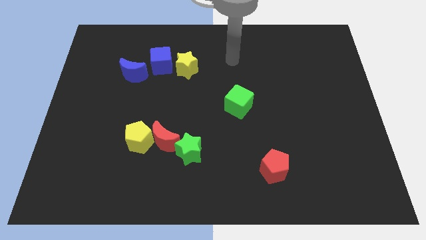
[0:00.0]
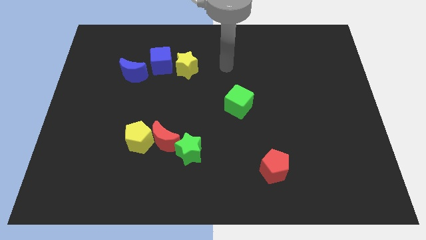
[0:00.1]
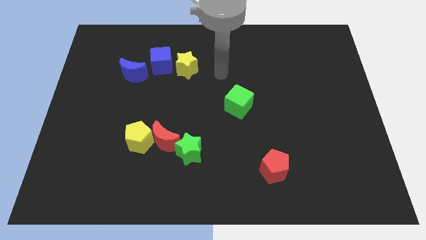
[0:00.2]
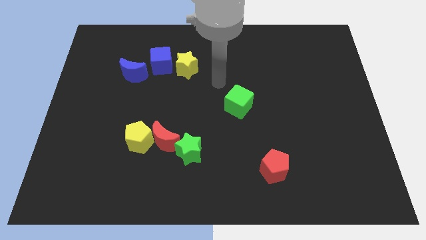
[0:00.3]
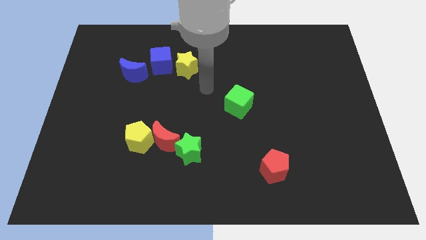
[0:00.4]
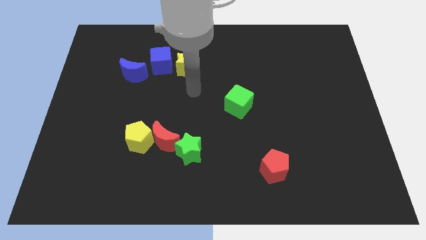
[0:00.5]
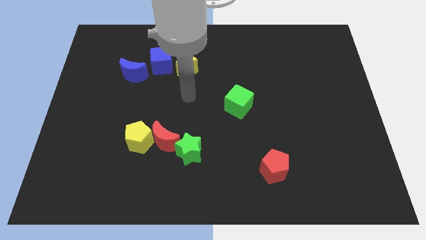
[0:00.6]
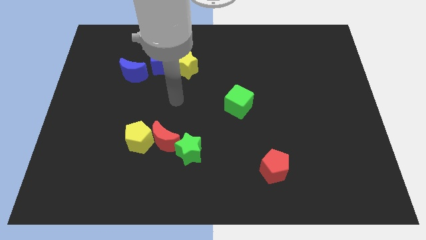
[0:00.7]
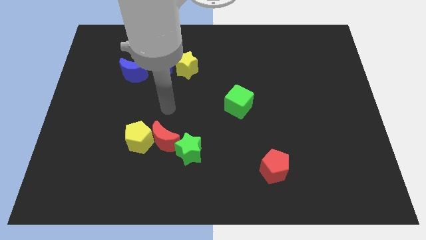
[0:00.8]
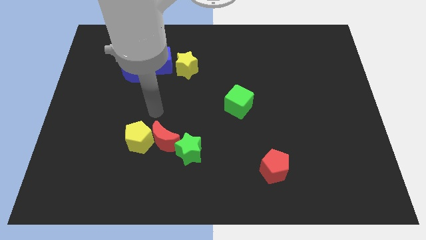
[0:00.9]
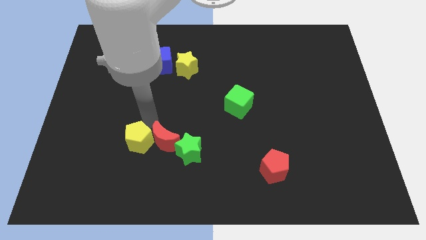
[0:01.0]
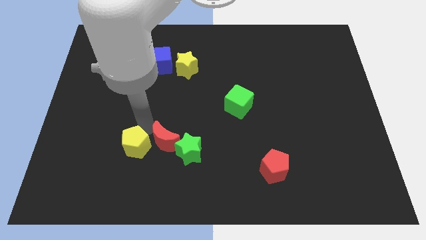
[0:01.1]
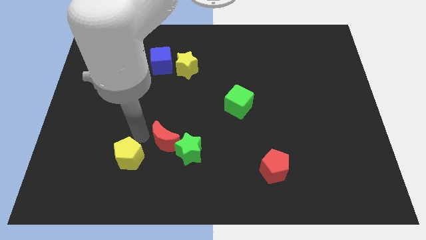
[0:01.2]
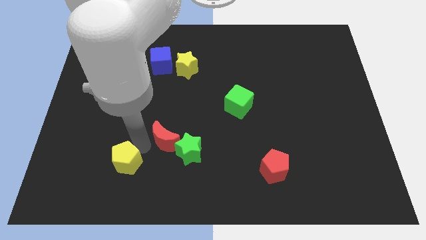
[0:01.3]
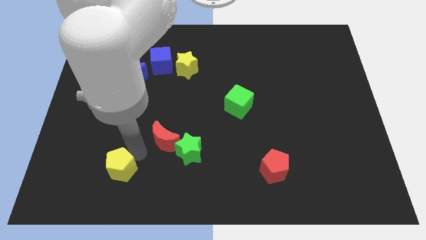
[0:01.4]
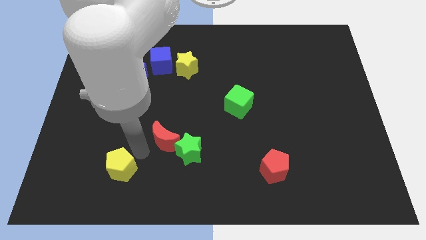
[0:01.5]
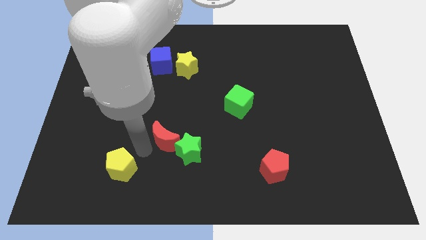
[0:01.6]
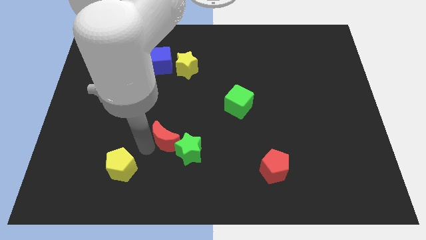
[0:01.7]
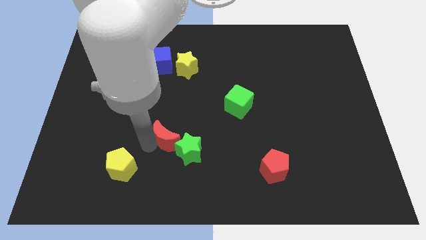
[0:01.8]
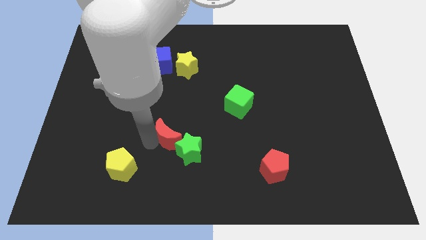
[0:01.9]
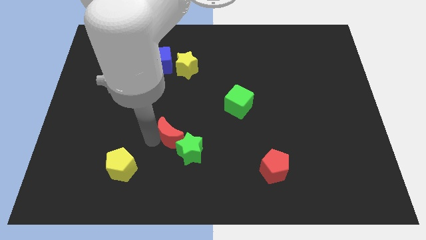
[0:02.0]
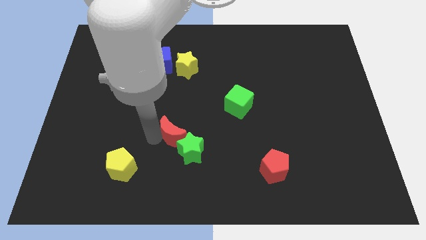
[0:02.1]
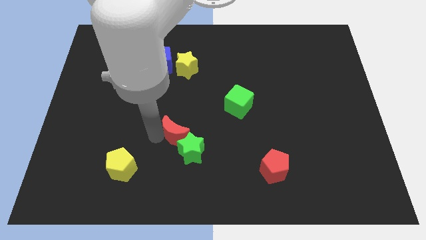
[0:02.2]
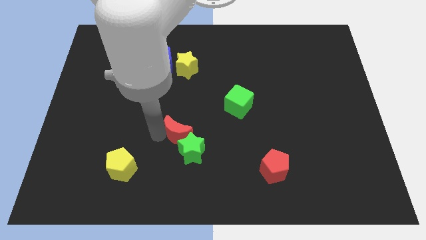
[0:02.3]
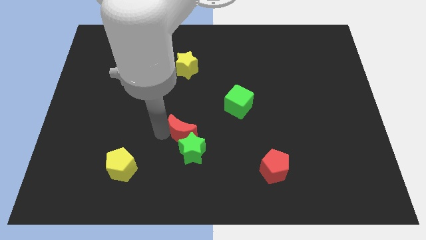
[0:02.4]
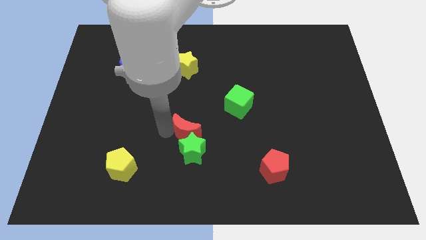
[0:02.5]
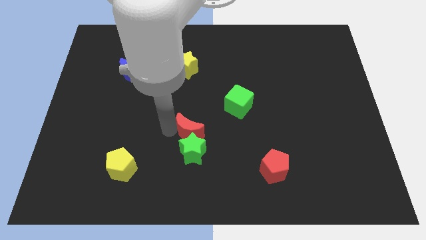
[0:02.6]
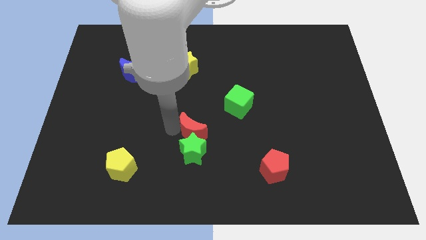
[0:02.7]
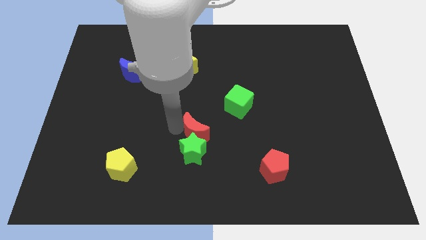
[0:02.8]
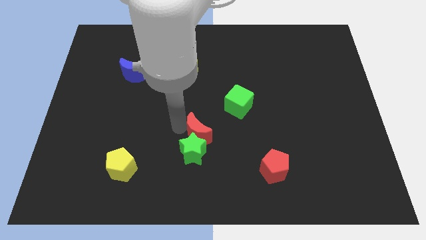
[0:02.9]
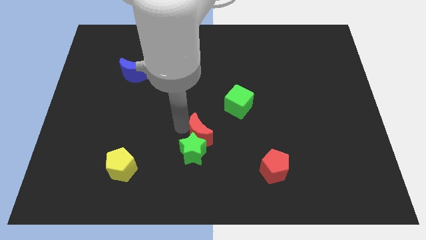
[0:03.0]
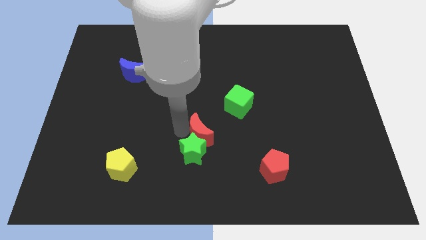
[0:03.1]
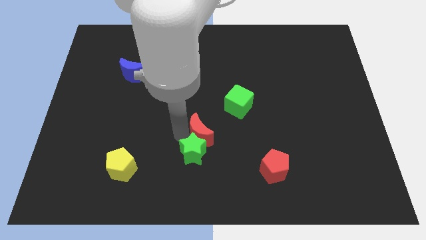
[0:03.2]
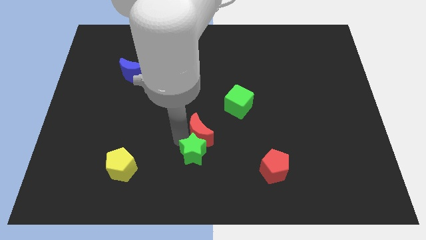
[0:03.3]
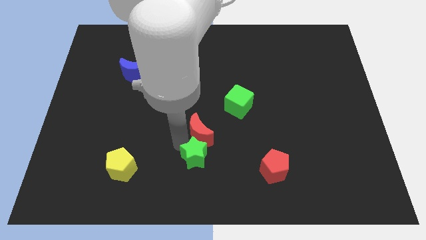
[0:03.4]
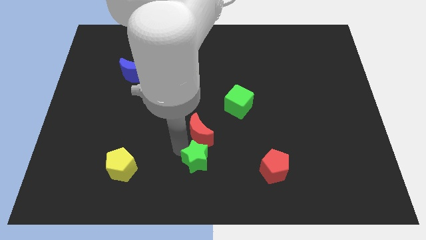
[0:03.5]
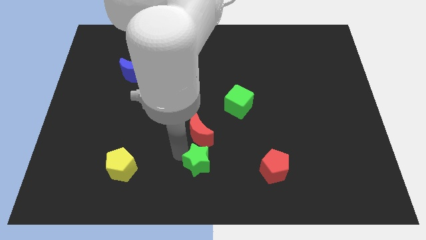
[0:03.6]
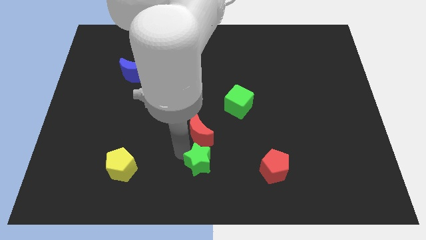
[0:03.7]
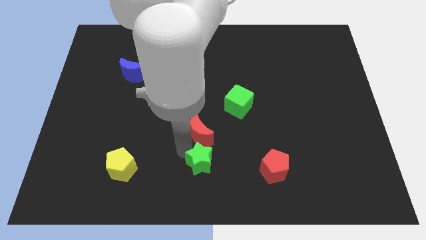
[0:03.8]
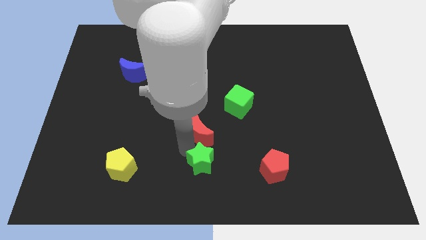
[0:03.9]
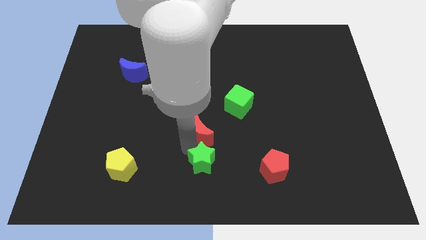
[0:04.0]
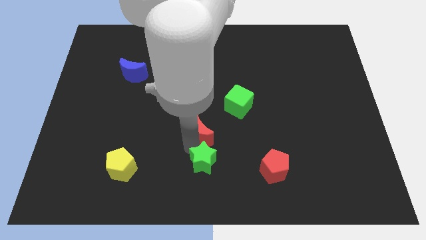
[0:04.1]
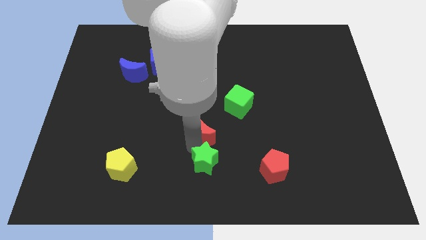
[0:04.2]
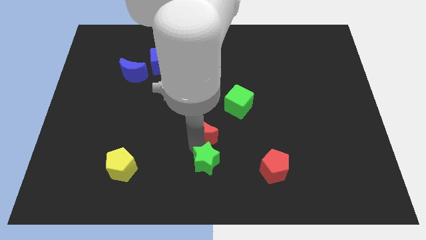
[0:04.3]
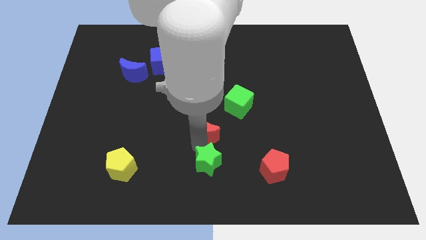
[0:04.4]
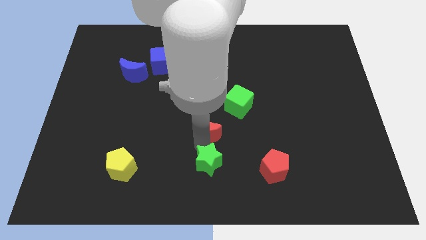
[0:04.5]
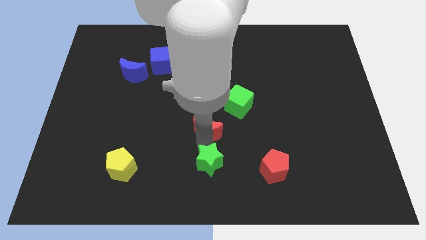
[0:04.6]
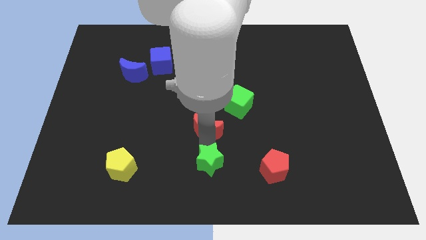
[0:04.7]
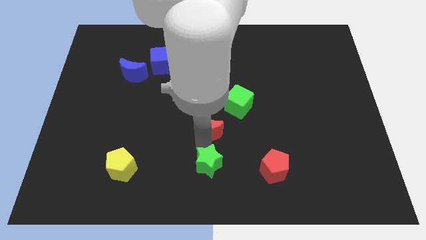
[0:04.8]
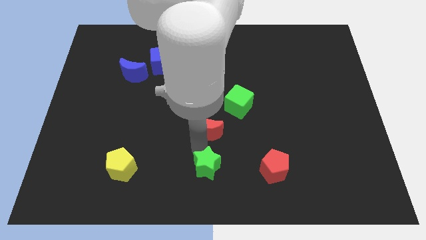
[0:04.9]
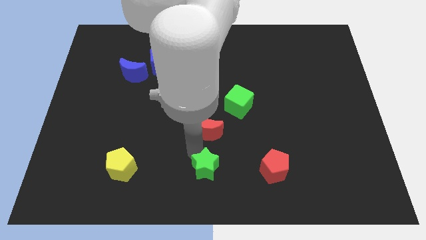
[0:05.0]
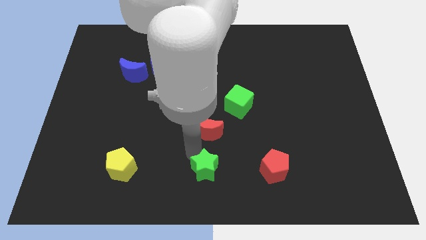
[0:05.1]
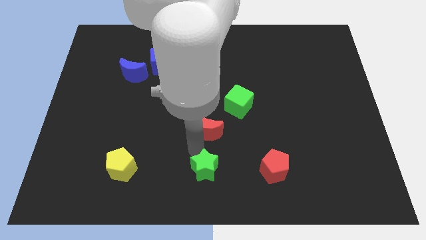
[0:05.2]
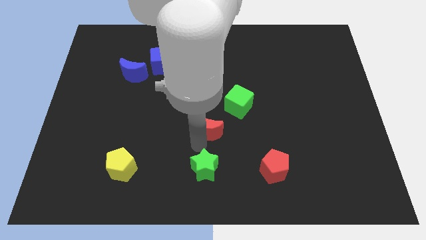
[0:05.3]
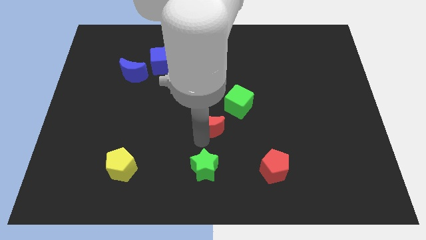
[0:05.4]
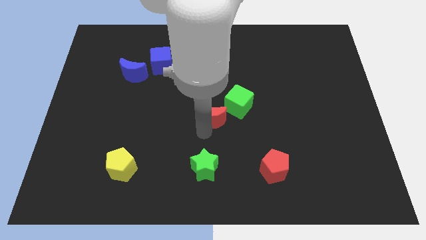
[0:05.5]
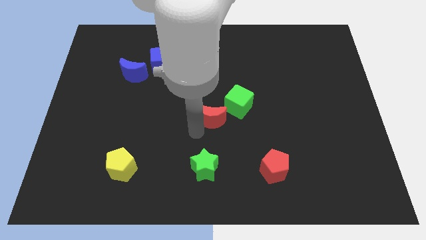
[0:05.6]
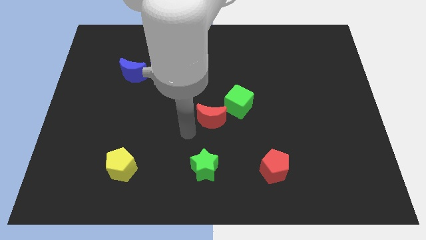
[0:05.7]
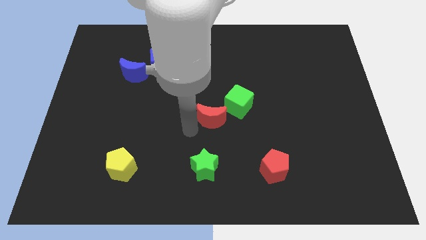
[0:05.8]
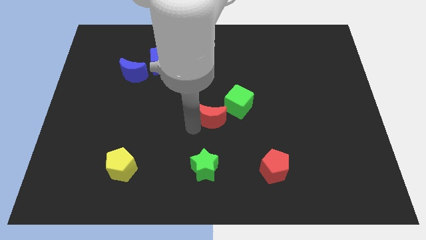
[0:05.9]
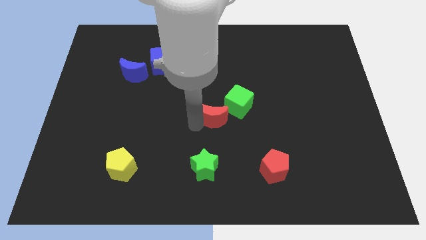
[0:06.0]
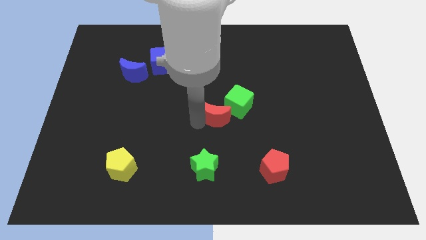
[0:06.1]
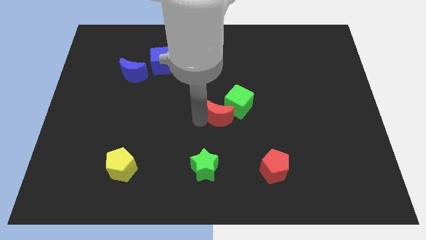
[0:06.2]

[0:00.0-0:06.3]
push the red moon towards the green cube

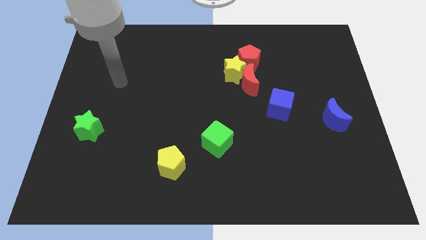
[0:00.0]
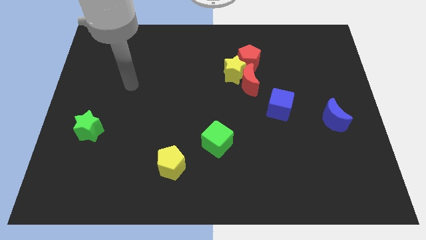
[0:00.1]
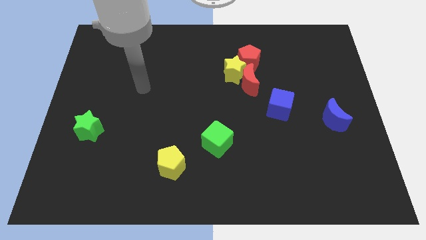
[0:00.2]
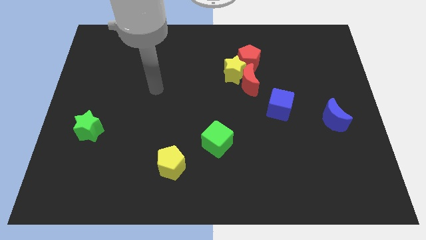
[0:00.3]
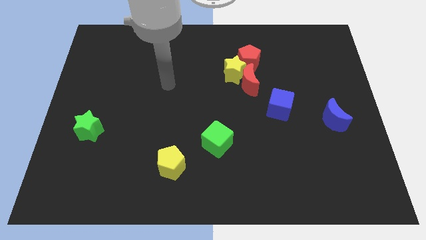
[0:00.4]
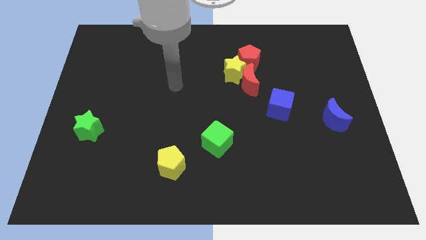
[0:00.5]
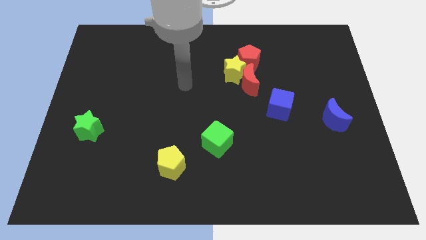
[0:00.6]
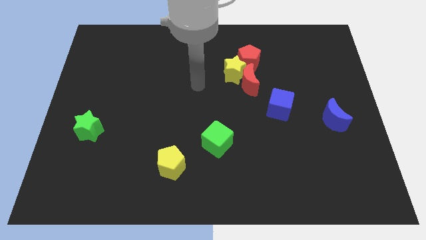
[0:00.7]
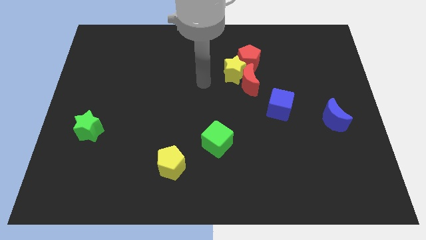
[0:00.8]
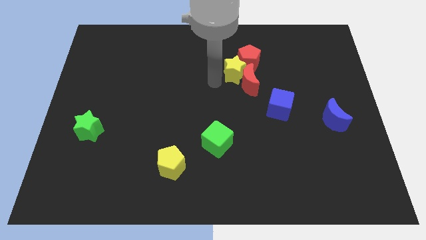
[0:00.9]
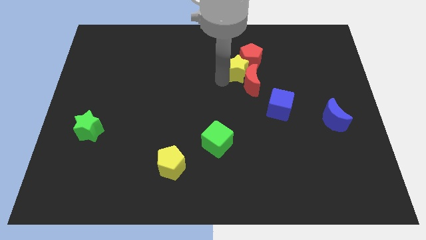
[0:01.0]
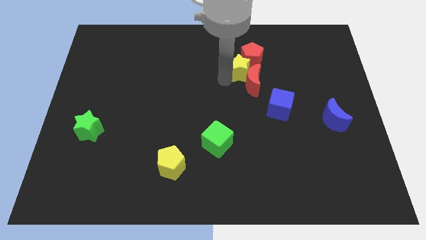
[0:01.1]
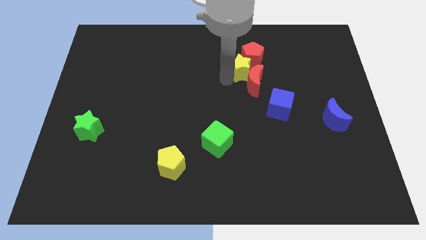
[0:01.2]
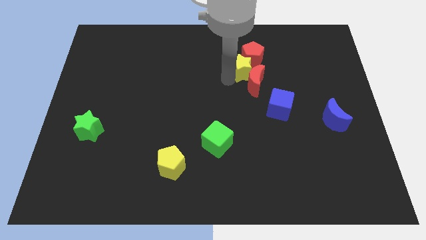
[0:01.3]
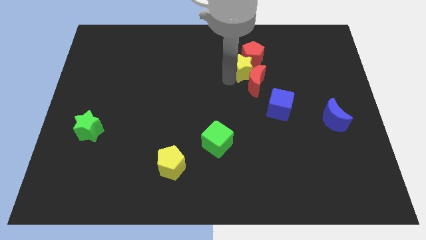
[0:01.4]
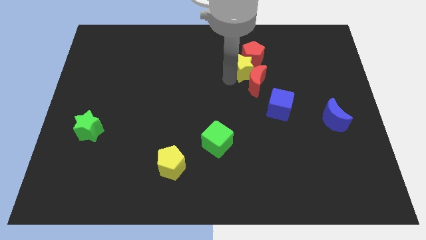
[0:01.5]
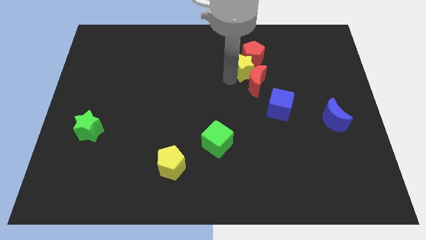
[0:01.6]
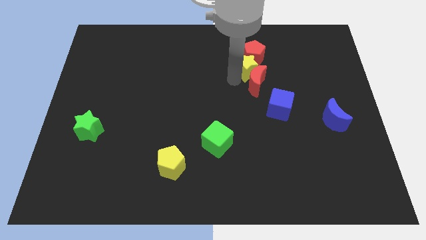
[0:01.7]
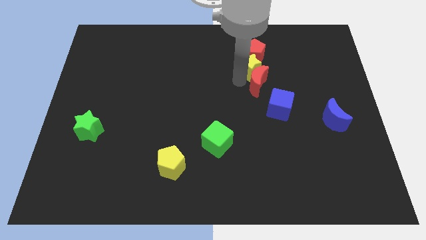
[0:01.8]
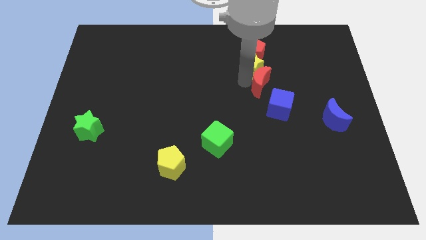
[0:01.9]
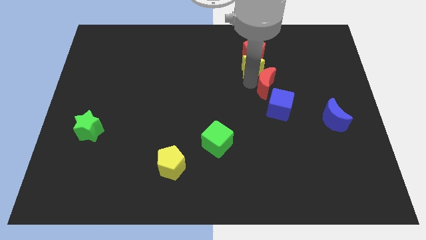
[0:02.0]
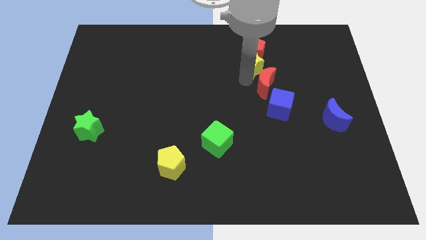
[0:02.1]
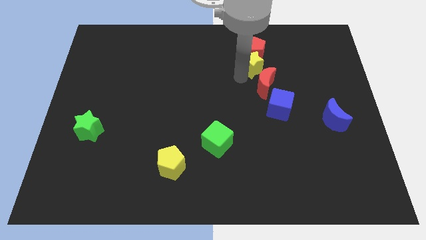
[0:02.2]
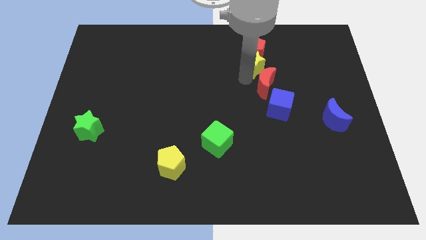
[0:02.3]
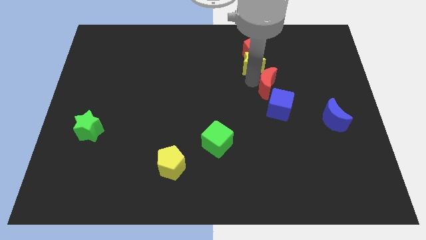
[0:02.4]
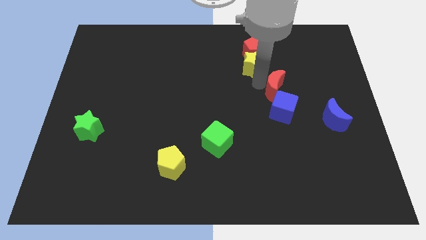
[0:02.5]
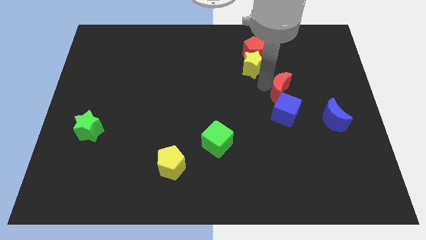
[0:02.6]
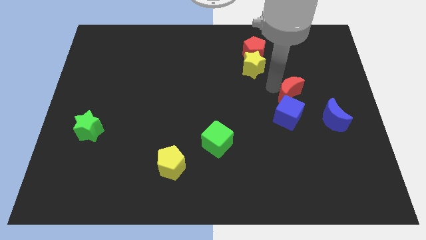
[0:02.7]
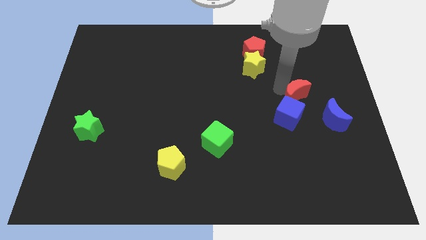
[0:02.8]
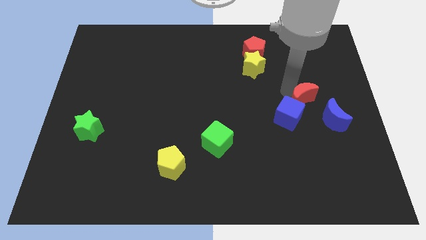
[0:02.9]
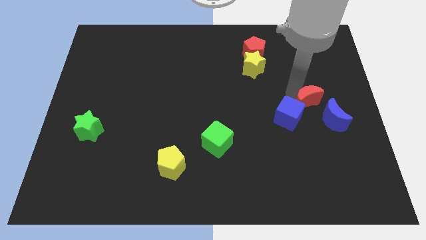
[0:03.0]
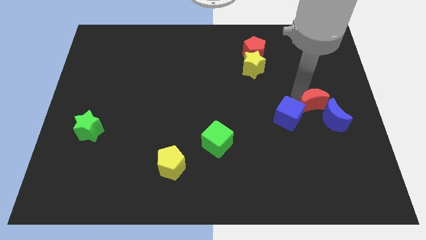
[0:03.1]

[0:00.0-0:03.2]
push the red moon close to the blue moon
